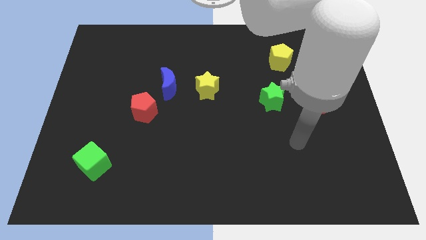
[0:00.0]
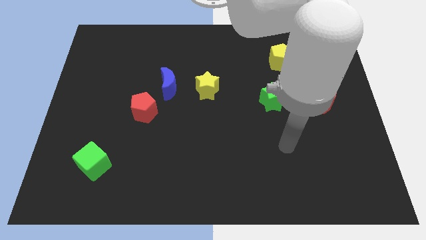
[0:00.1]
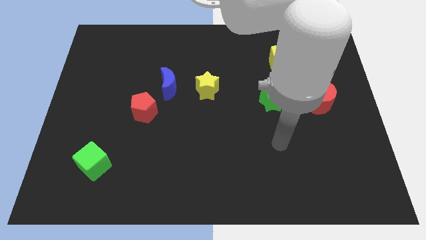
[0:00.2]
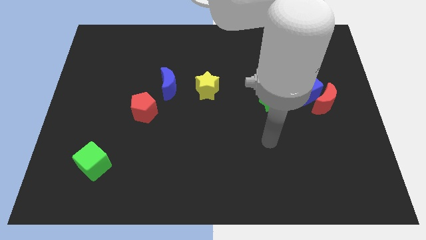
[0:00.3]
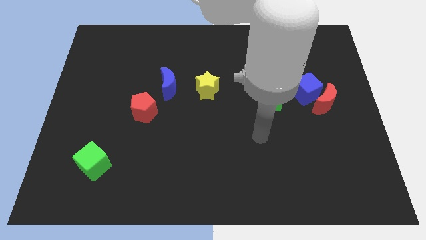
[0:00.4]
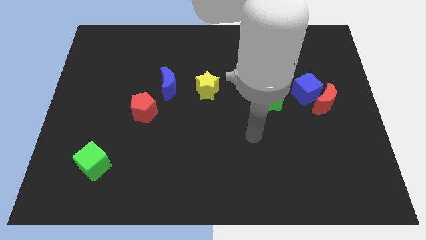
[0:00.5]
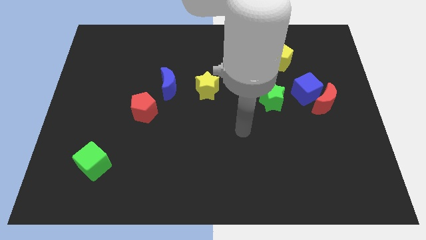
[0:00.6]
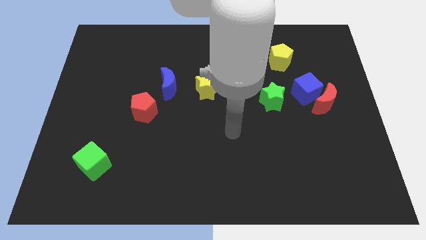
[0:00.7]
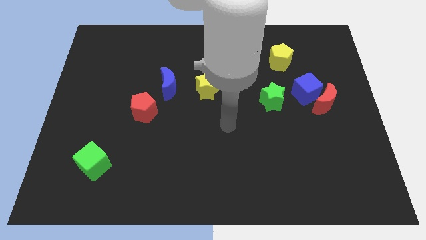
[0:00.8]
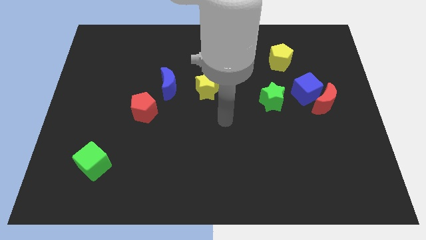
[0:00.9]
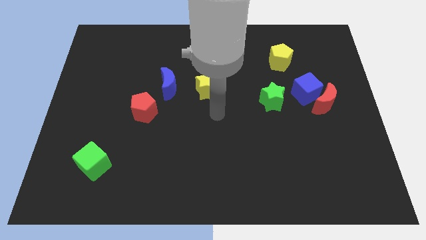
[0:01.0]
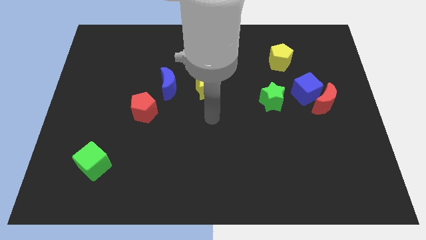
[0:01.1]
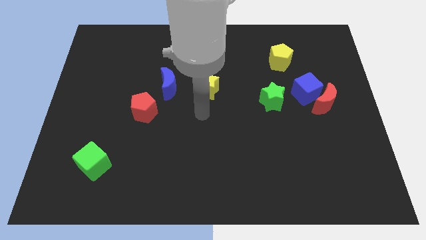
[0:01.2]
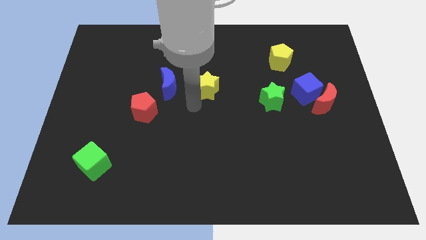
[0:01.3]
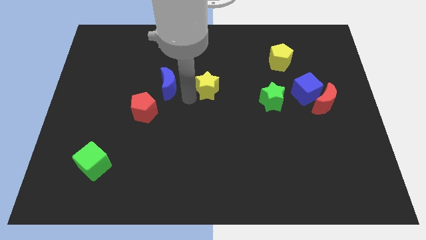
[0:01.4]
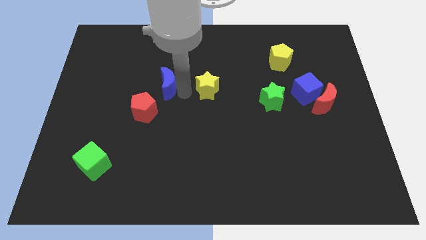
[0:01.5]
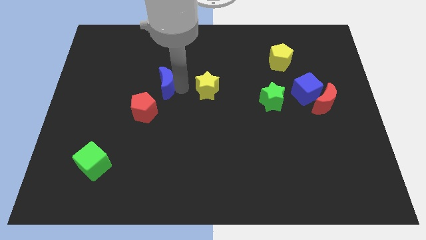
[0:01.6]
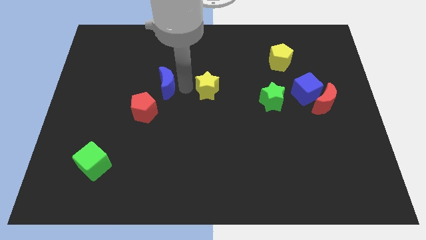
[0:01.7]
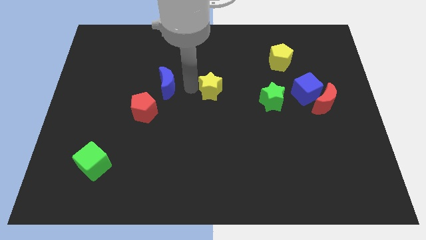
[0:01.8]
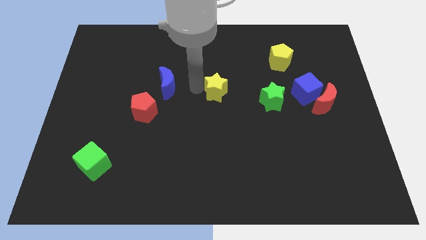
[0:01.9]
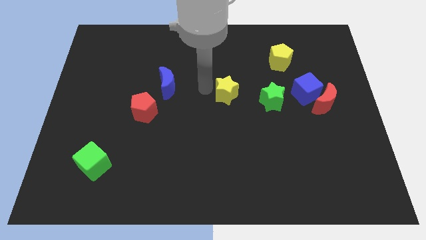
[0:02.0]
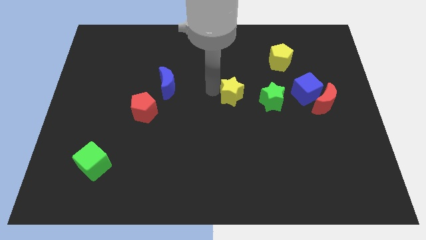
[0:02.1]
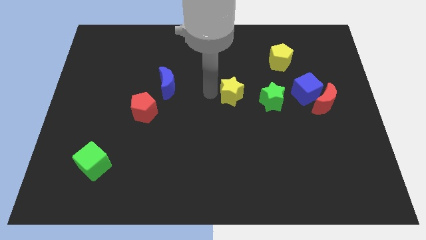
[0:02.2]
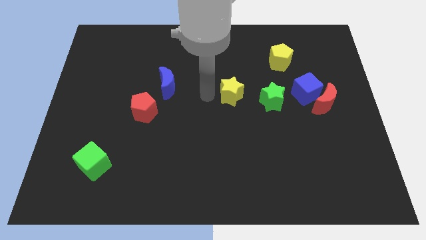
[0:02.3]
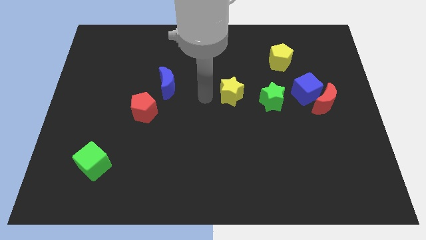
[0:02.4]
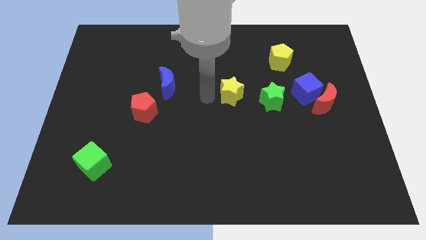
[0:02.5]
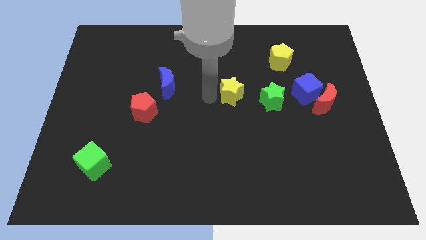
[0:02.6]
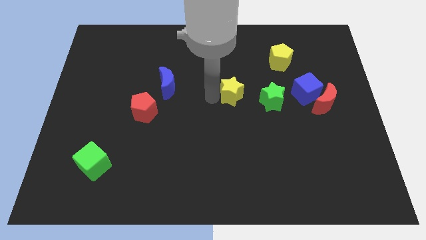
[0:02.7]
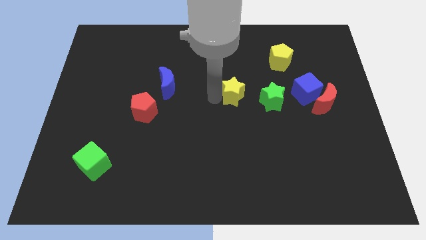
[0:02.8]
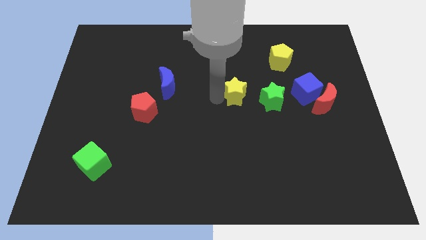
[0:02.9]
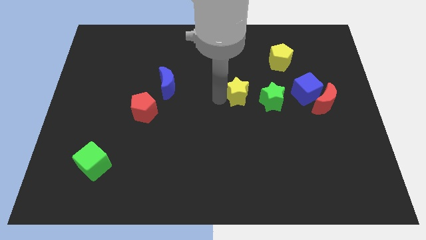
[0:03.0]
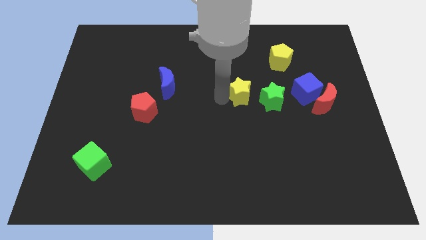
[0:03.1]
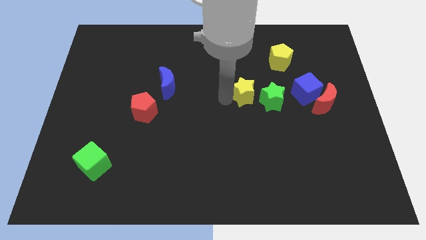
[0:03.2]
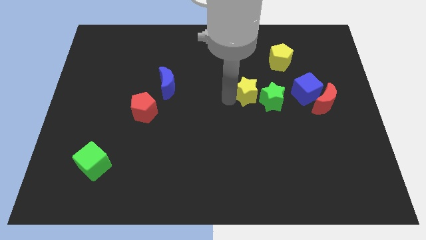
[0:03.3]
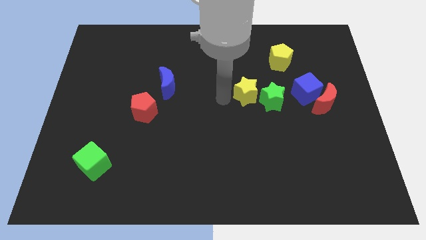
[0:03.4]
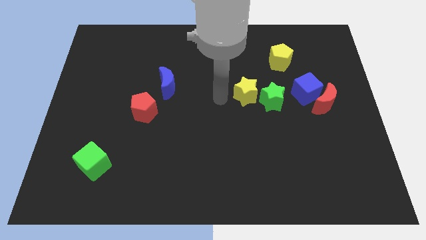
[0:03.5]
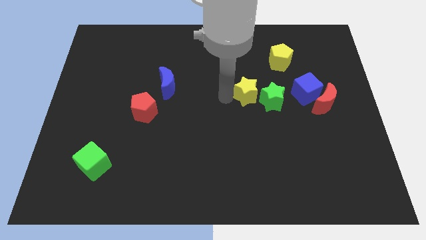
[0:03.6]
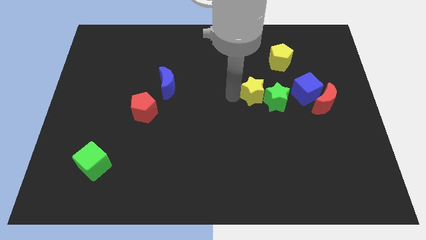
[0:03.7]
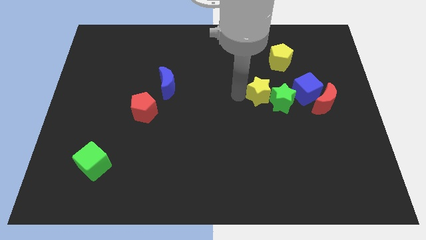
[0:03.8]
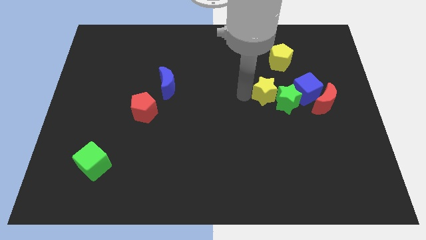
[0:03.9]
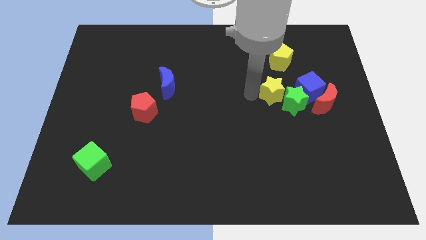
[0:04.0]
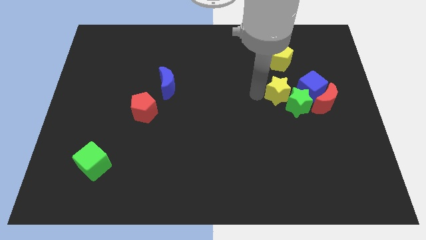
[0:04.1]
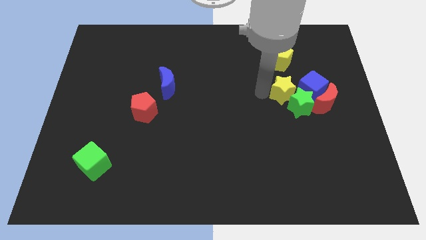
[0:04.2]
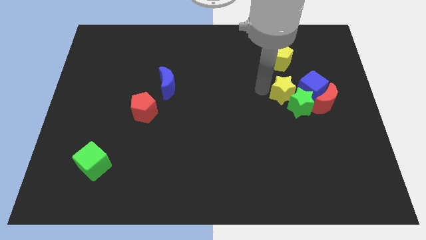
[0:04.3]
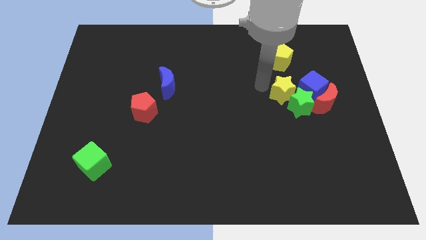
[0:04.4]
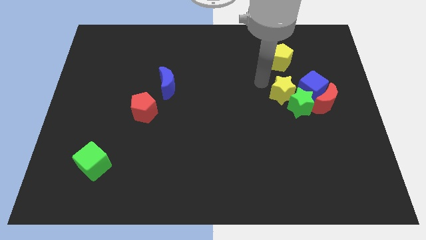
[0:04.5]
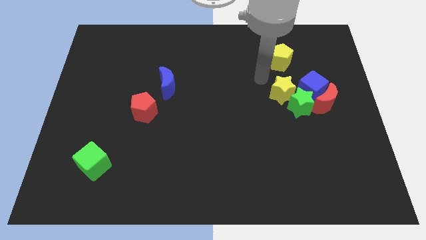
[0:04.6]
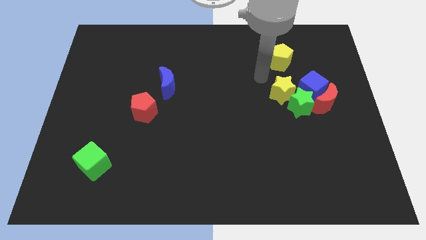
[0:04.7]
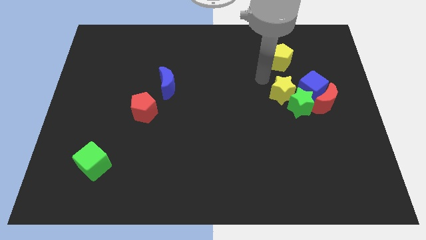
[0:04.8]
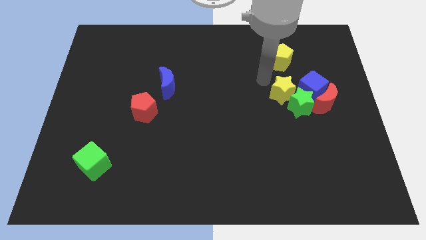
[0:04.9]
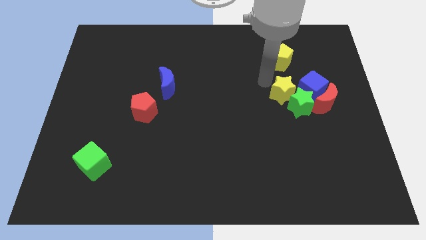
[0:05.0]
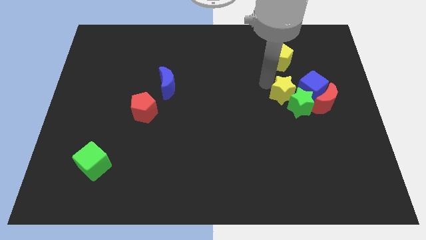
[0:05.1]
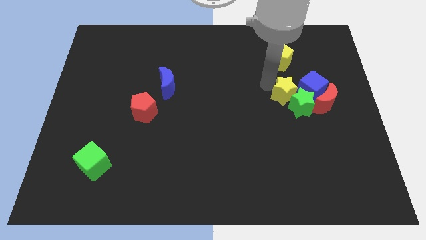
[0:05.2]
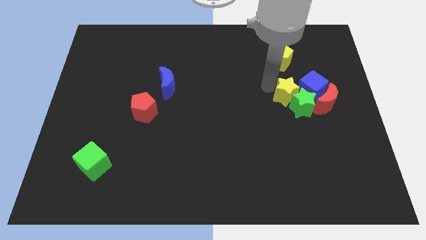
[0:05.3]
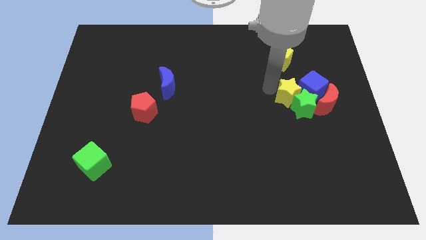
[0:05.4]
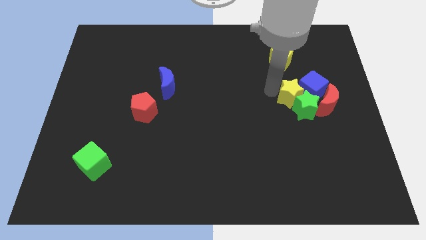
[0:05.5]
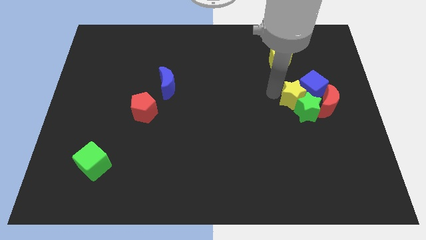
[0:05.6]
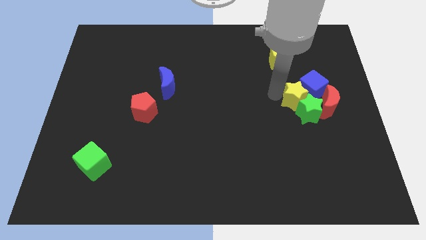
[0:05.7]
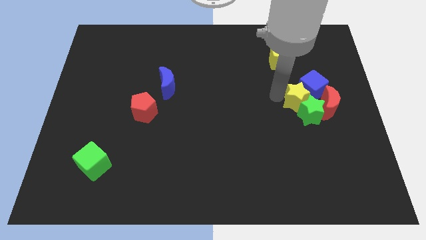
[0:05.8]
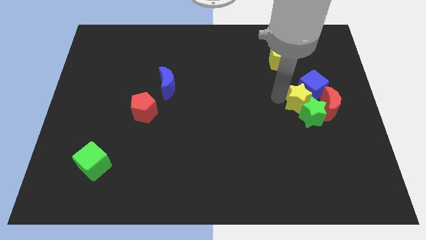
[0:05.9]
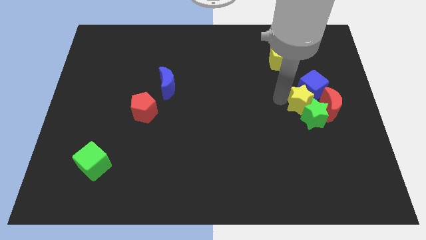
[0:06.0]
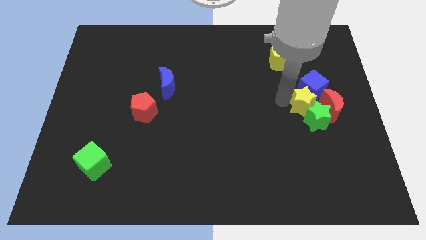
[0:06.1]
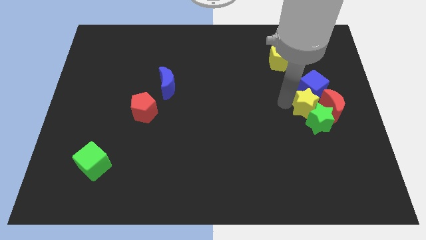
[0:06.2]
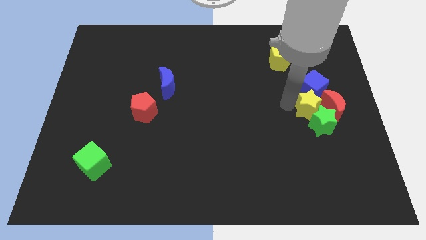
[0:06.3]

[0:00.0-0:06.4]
move the yellow star close to the red moon

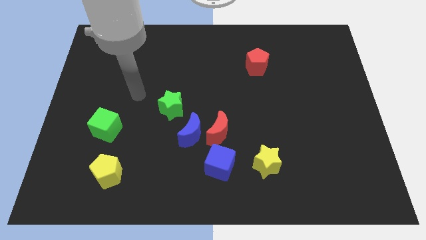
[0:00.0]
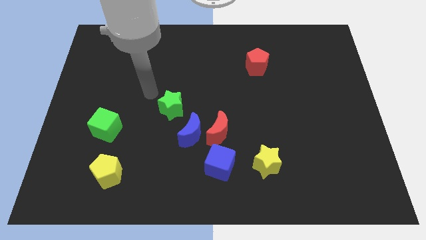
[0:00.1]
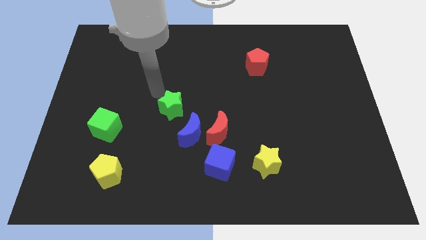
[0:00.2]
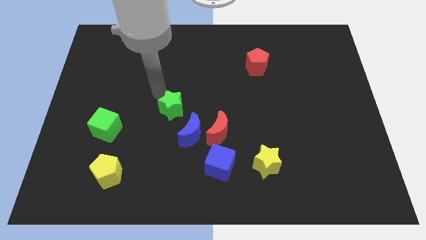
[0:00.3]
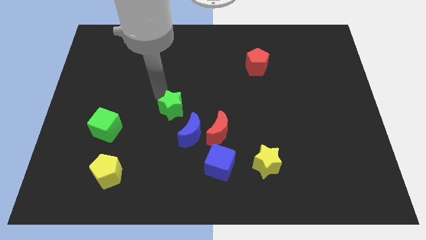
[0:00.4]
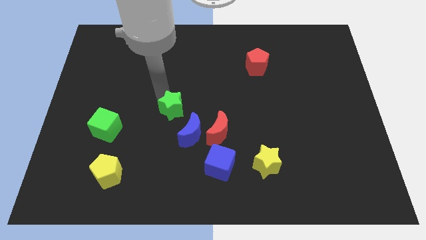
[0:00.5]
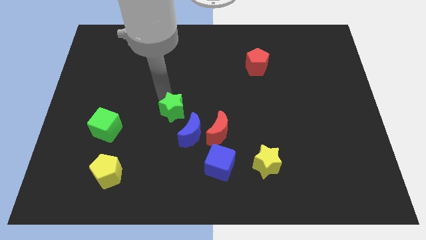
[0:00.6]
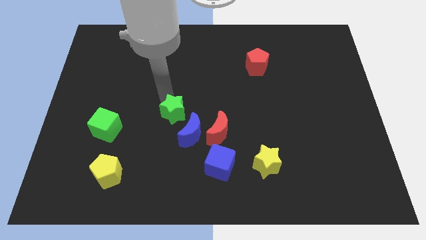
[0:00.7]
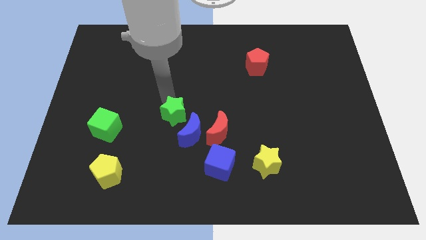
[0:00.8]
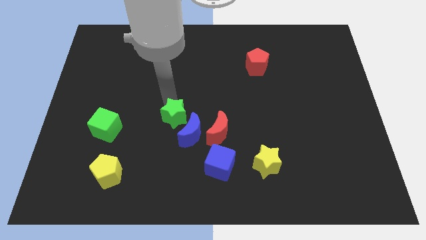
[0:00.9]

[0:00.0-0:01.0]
move the green star next to the blue moon
